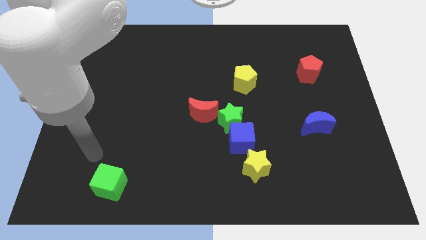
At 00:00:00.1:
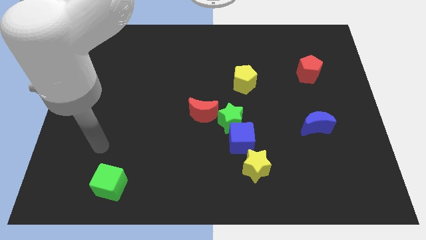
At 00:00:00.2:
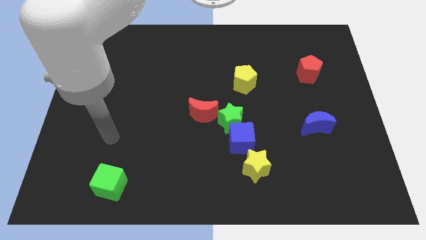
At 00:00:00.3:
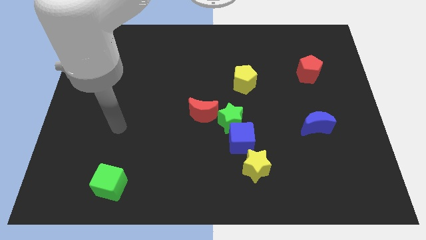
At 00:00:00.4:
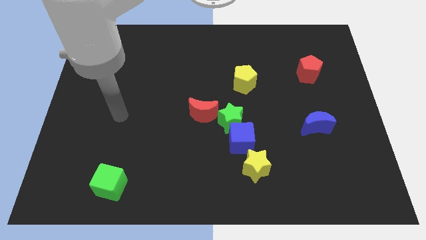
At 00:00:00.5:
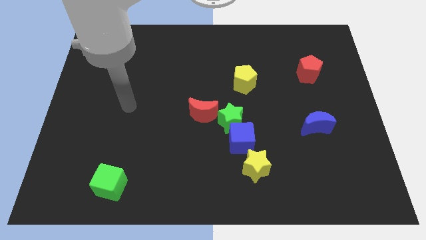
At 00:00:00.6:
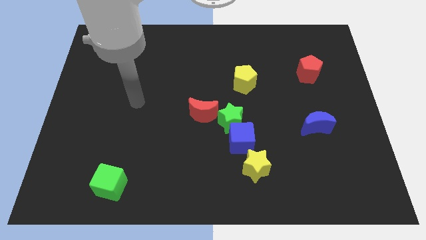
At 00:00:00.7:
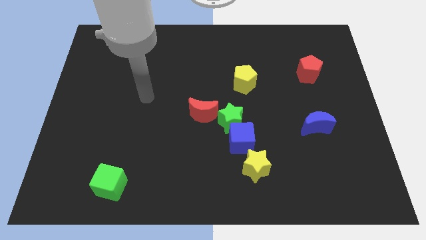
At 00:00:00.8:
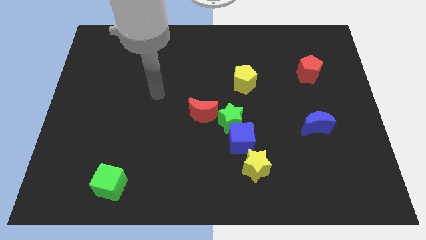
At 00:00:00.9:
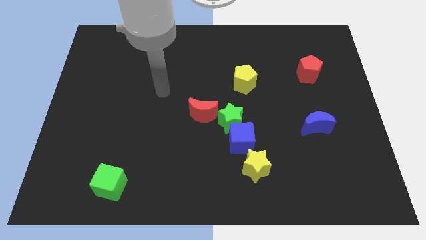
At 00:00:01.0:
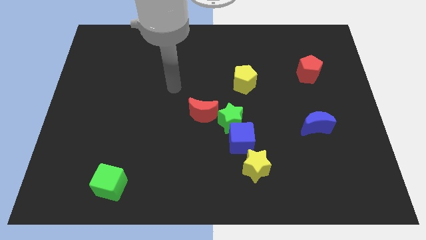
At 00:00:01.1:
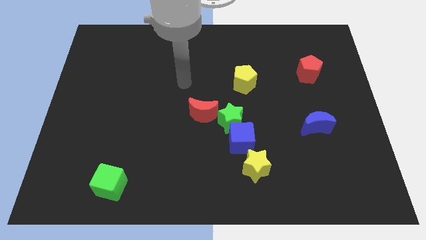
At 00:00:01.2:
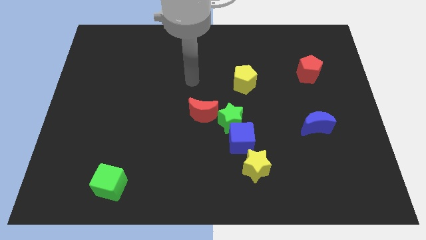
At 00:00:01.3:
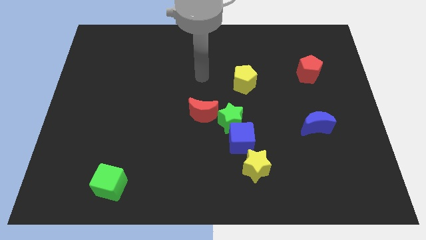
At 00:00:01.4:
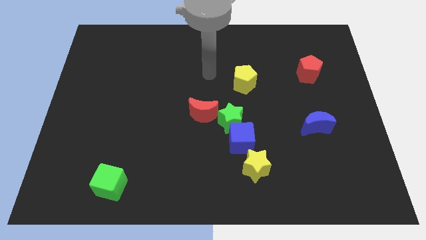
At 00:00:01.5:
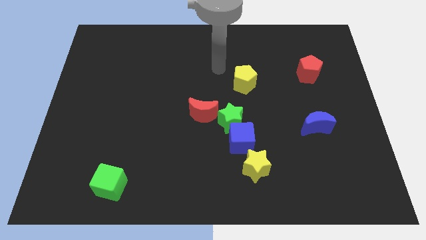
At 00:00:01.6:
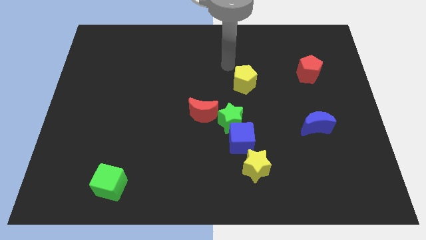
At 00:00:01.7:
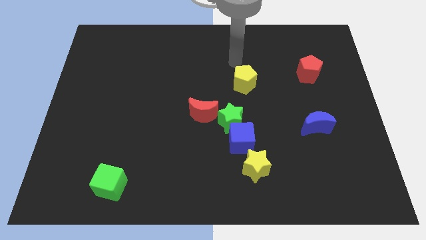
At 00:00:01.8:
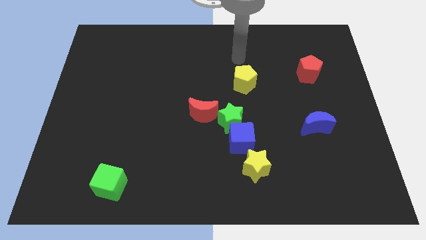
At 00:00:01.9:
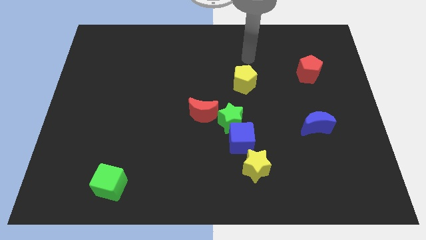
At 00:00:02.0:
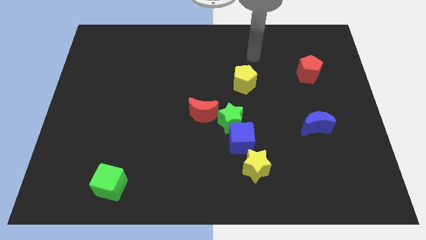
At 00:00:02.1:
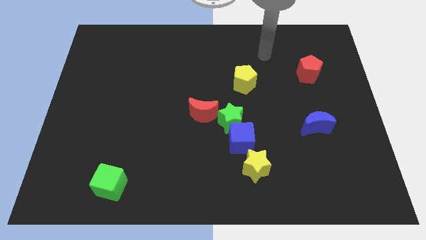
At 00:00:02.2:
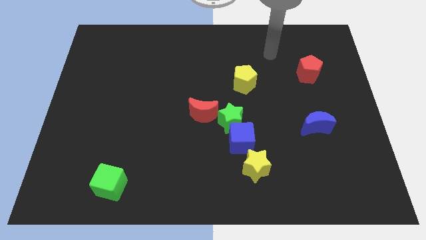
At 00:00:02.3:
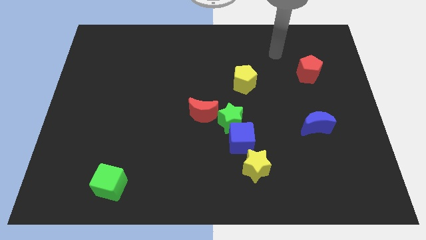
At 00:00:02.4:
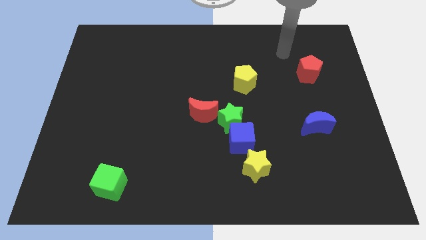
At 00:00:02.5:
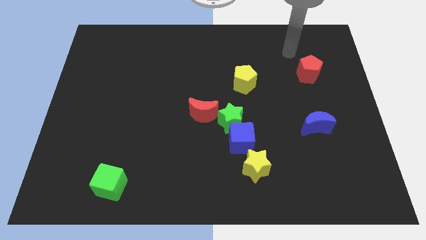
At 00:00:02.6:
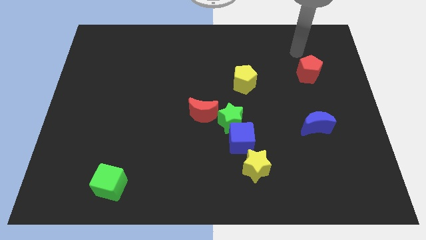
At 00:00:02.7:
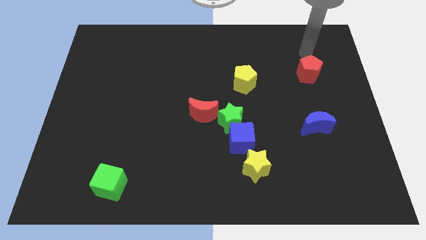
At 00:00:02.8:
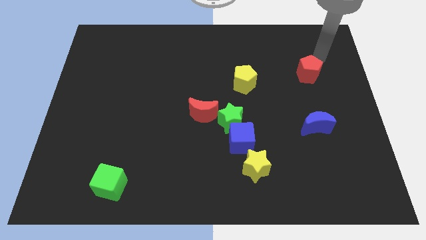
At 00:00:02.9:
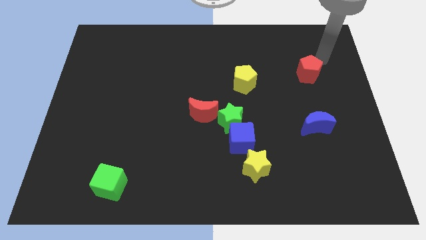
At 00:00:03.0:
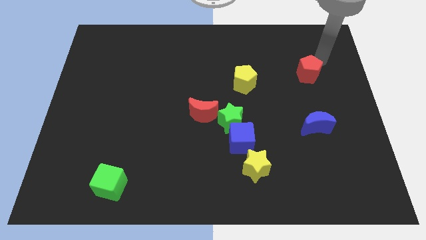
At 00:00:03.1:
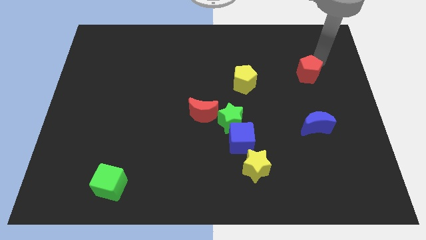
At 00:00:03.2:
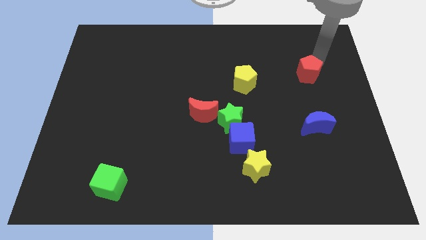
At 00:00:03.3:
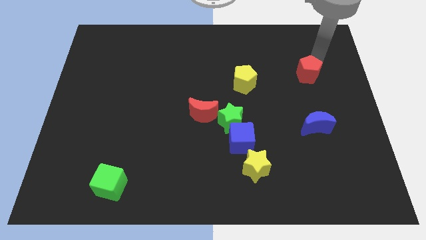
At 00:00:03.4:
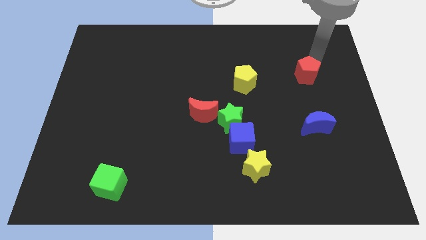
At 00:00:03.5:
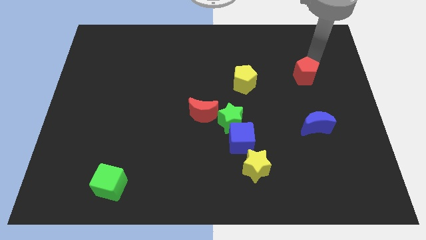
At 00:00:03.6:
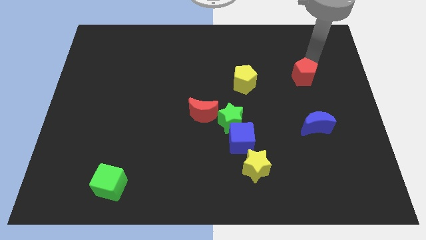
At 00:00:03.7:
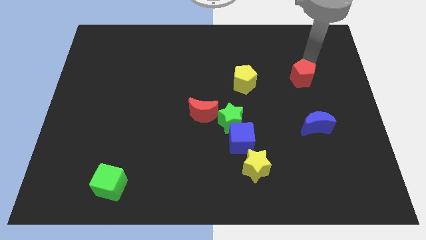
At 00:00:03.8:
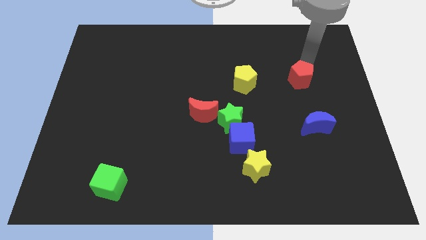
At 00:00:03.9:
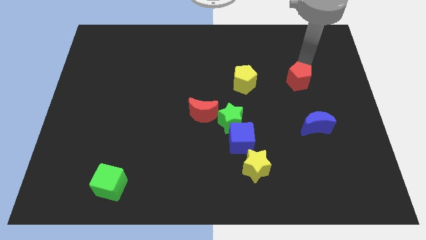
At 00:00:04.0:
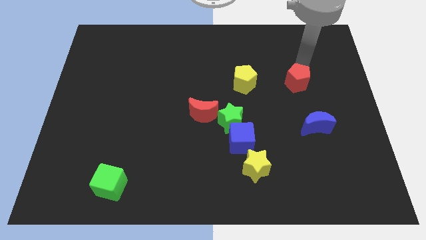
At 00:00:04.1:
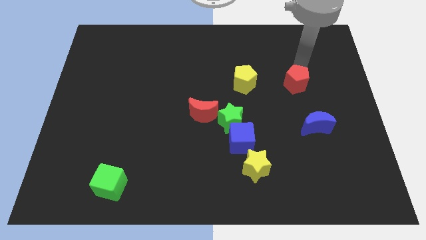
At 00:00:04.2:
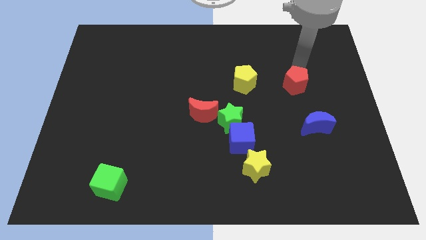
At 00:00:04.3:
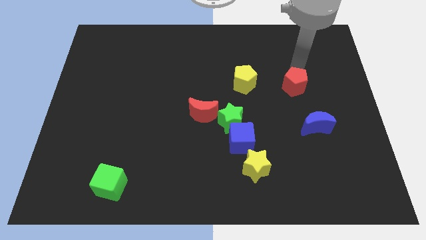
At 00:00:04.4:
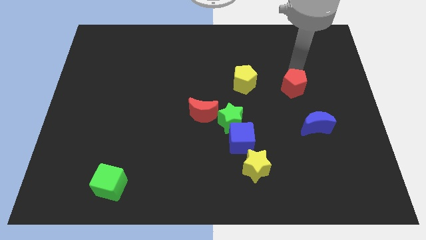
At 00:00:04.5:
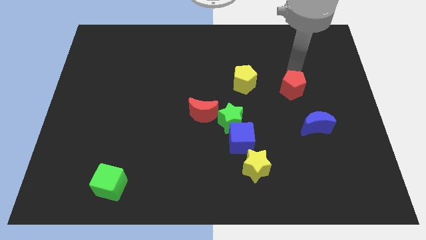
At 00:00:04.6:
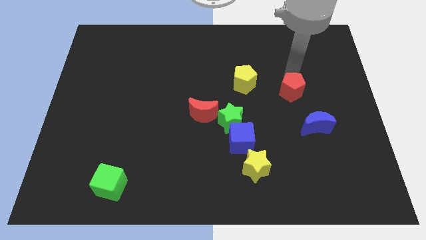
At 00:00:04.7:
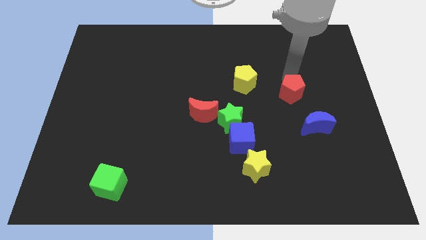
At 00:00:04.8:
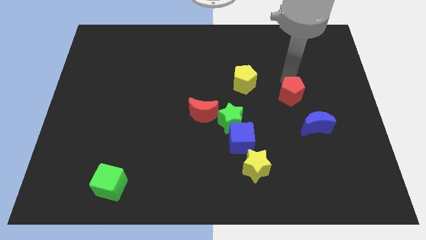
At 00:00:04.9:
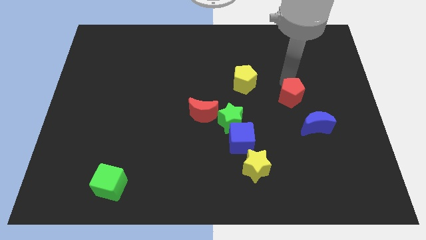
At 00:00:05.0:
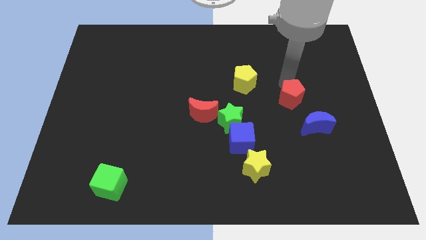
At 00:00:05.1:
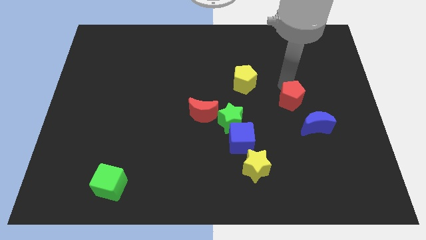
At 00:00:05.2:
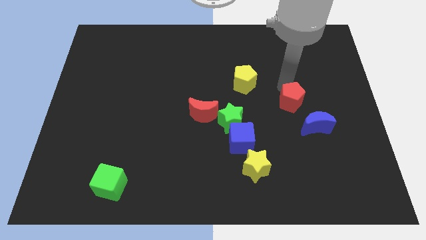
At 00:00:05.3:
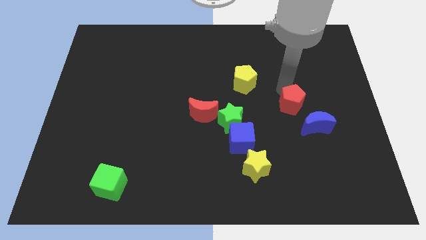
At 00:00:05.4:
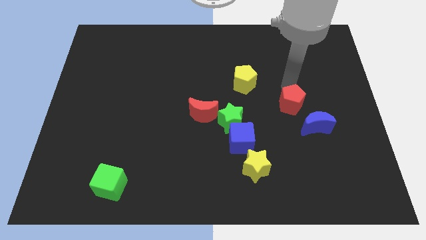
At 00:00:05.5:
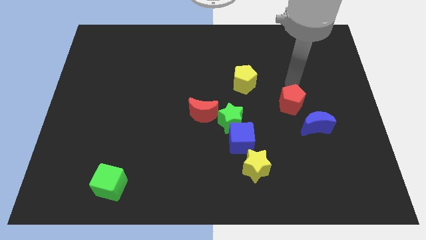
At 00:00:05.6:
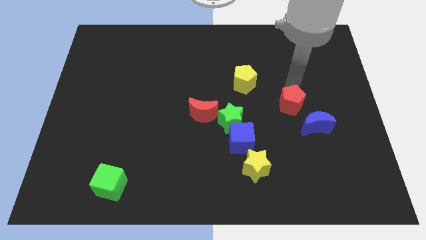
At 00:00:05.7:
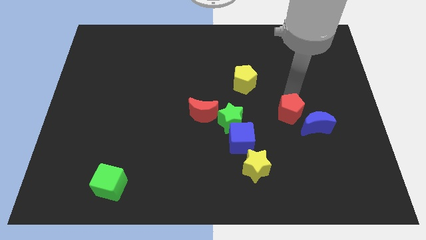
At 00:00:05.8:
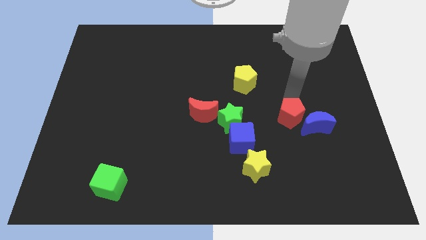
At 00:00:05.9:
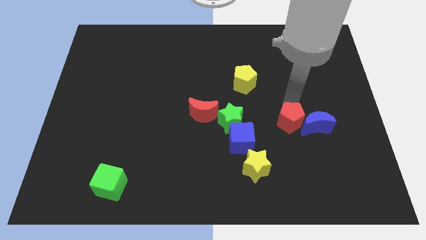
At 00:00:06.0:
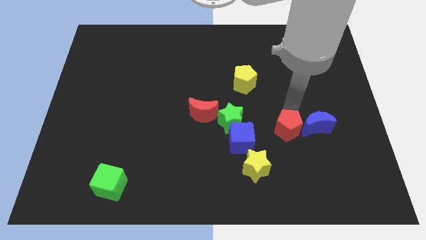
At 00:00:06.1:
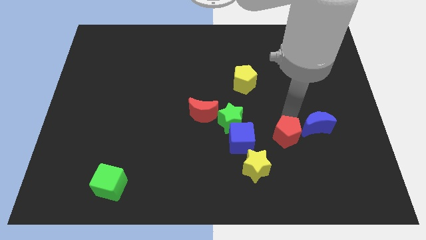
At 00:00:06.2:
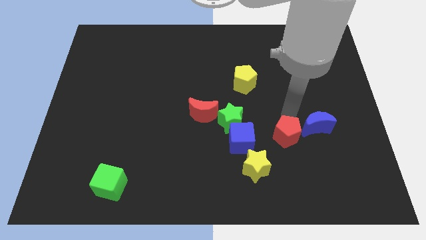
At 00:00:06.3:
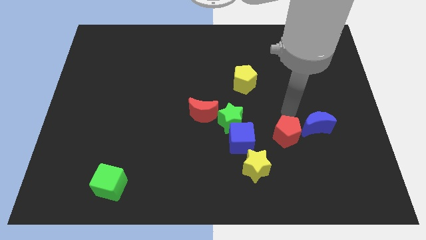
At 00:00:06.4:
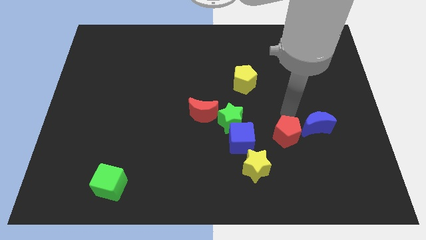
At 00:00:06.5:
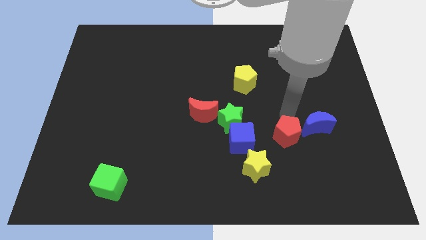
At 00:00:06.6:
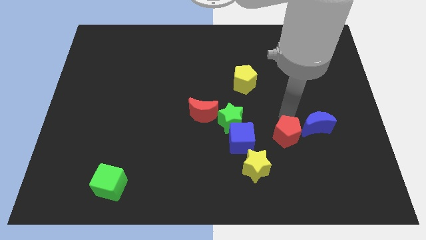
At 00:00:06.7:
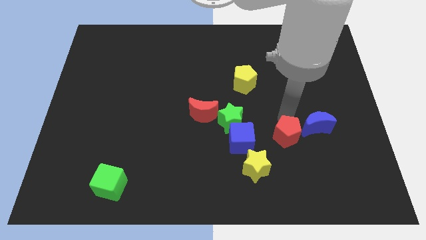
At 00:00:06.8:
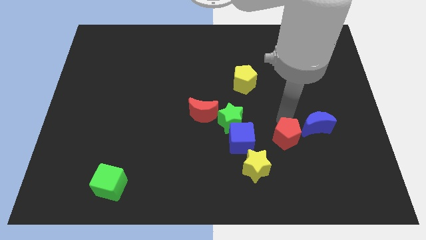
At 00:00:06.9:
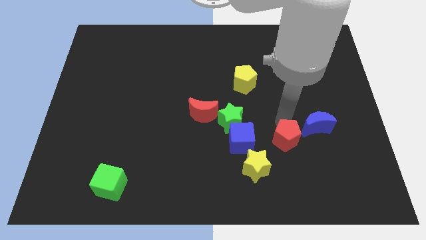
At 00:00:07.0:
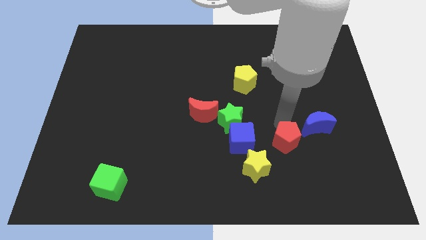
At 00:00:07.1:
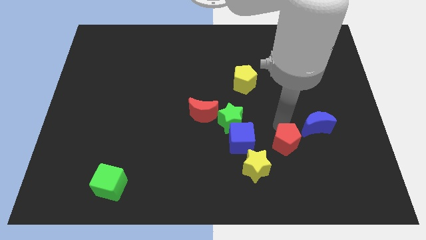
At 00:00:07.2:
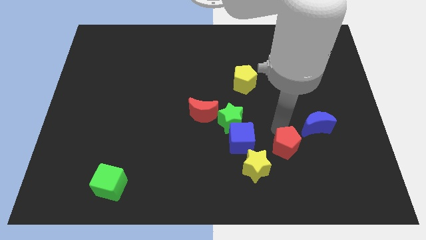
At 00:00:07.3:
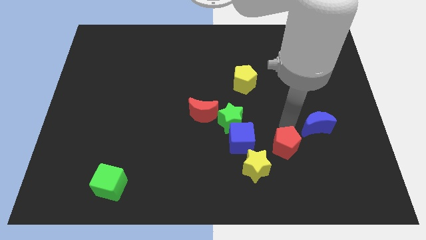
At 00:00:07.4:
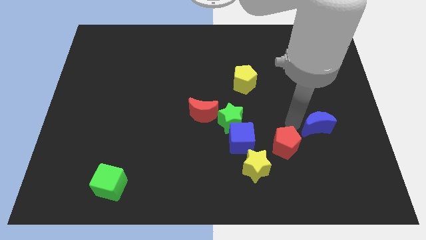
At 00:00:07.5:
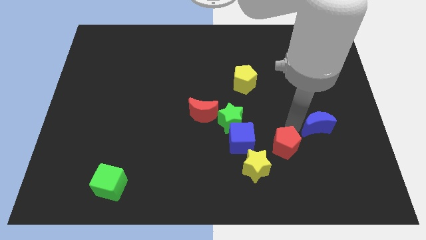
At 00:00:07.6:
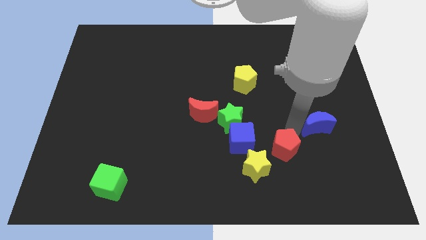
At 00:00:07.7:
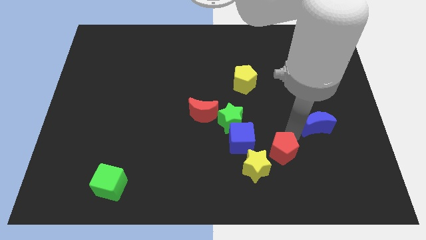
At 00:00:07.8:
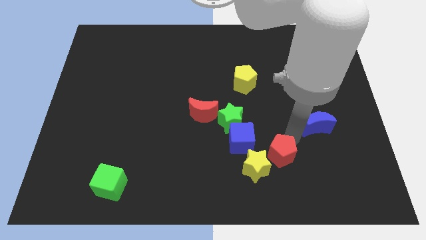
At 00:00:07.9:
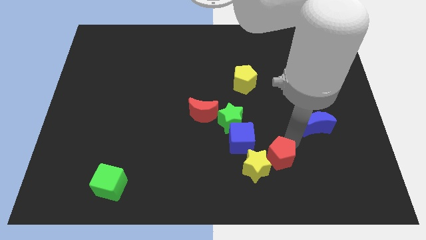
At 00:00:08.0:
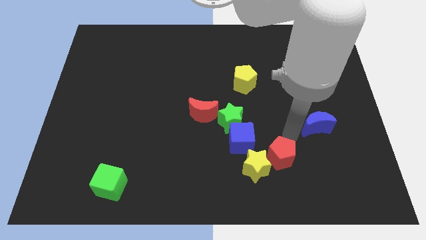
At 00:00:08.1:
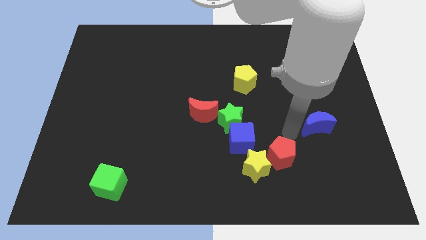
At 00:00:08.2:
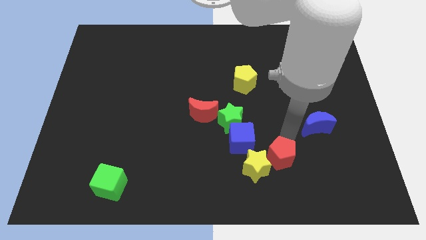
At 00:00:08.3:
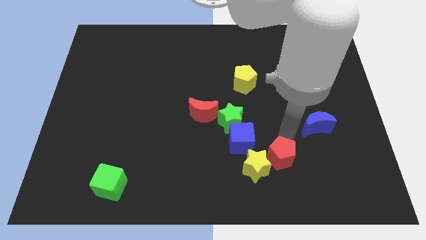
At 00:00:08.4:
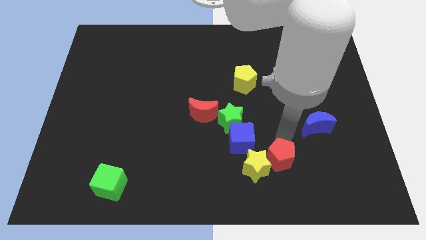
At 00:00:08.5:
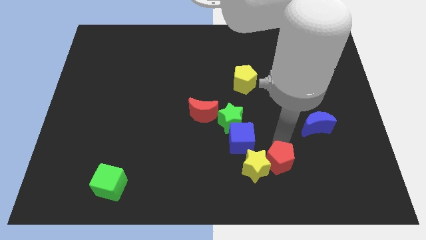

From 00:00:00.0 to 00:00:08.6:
slide the red pentagon diagonally downwards and left
